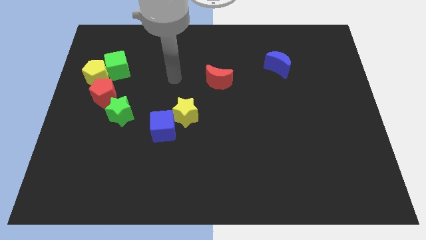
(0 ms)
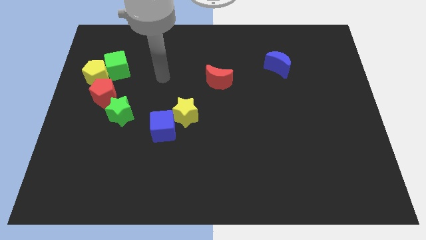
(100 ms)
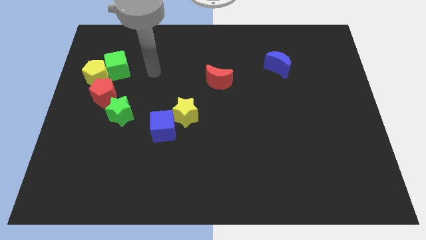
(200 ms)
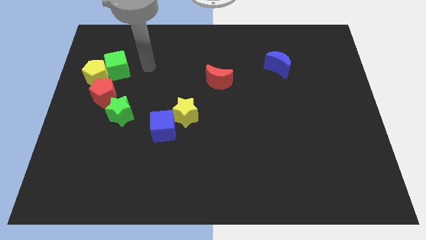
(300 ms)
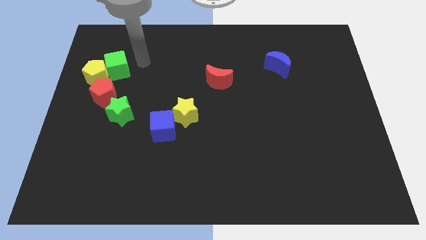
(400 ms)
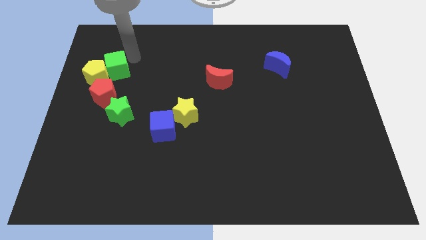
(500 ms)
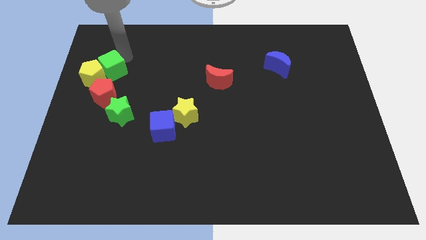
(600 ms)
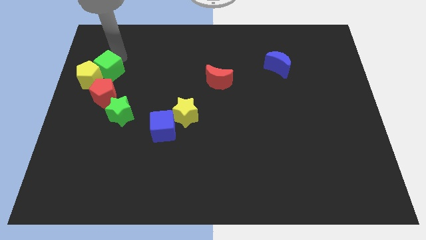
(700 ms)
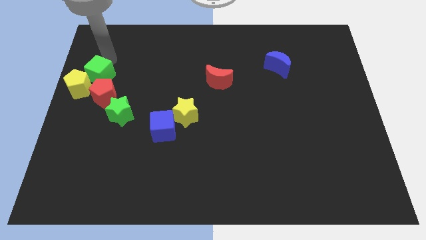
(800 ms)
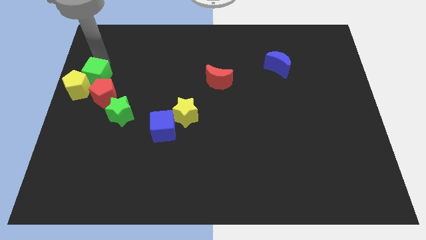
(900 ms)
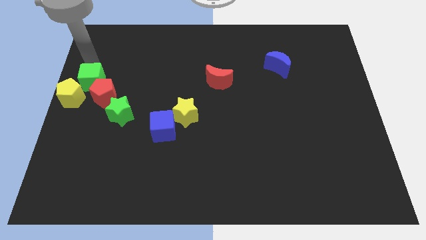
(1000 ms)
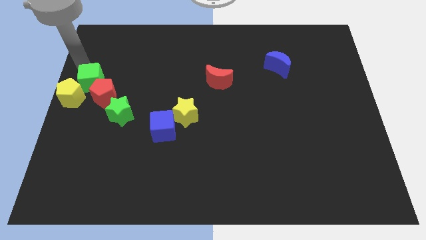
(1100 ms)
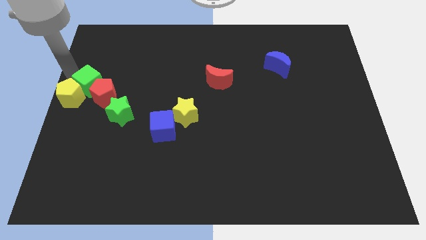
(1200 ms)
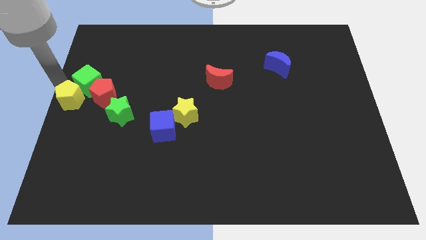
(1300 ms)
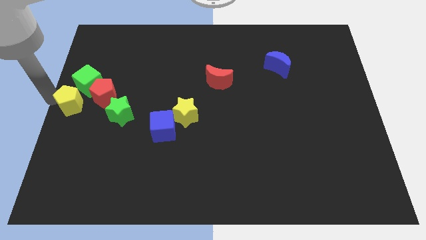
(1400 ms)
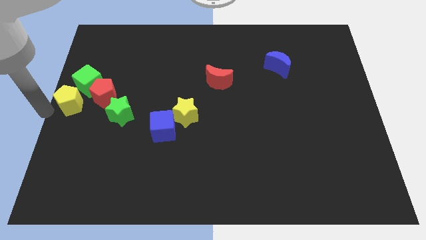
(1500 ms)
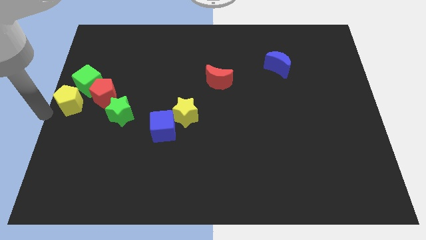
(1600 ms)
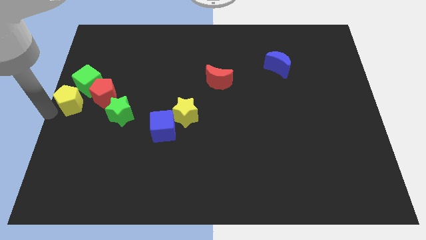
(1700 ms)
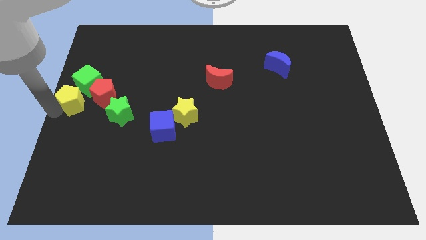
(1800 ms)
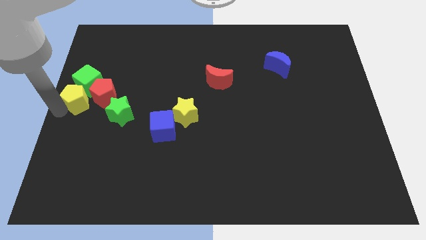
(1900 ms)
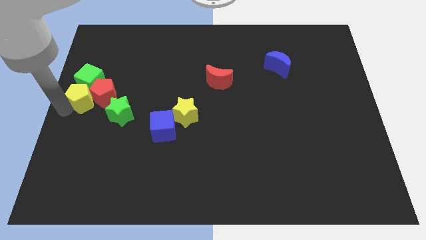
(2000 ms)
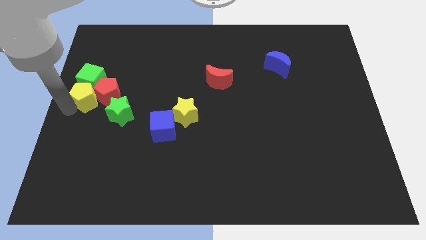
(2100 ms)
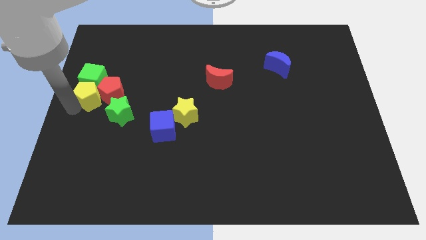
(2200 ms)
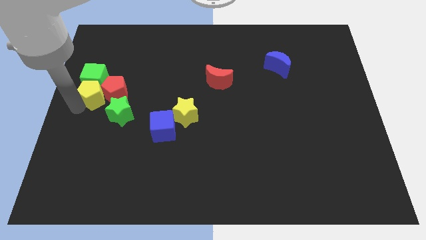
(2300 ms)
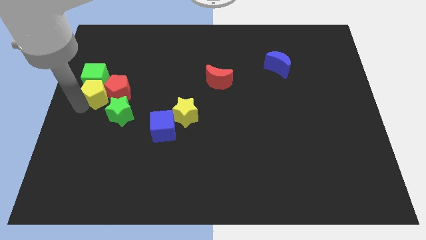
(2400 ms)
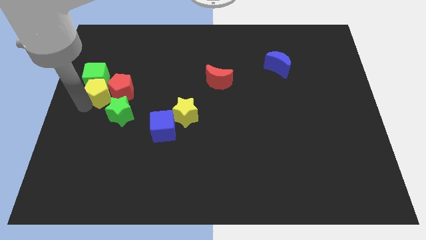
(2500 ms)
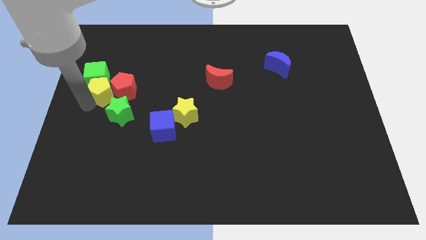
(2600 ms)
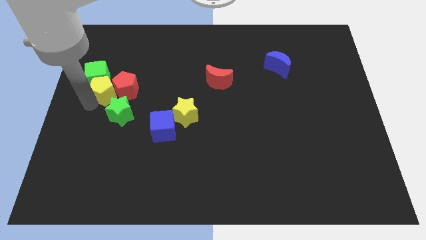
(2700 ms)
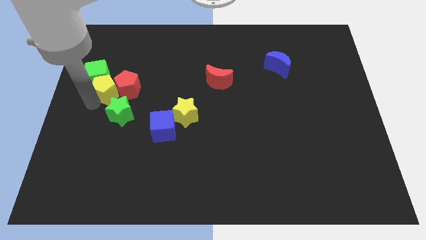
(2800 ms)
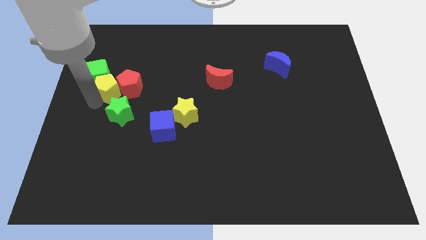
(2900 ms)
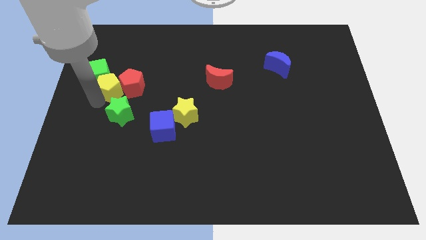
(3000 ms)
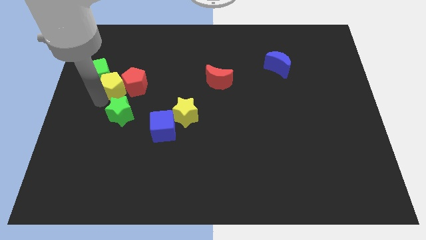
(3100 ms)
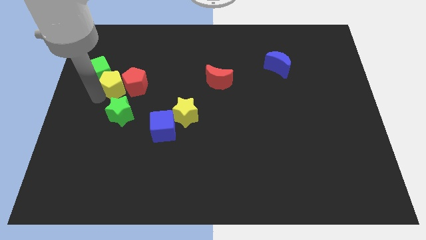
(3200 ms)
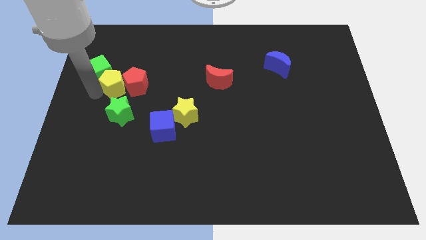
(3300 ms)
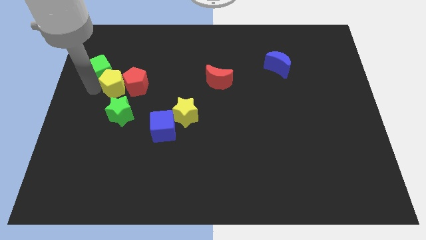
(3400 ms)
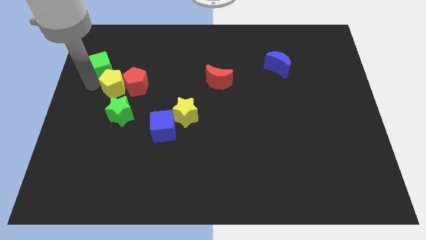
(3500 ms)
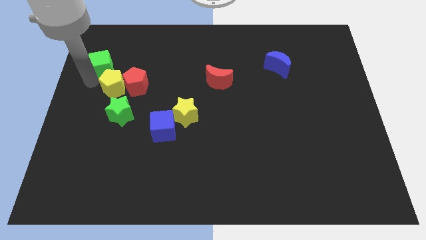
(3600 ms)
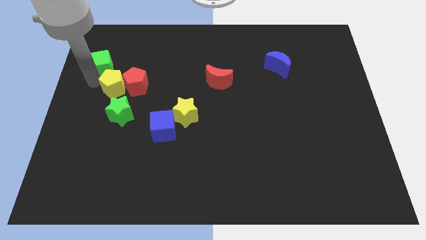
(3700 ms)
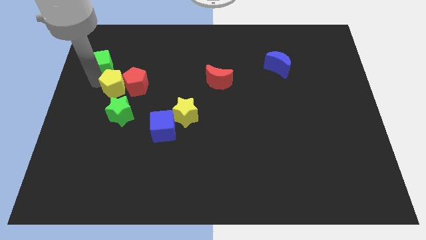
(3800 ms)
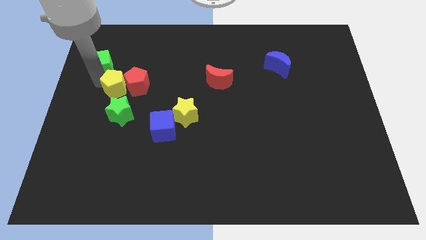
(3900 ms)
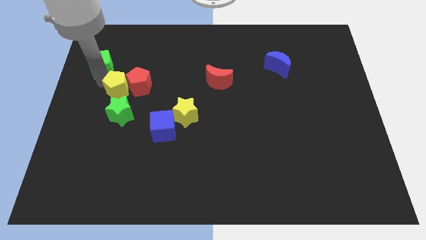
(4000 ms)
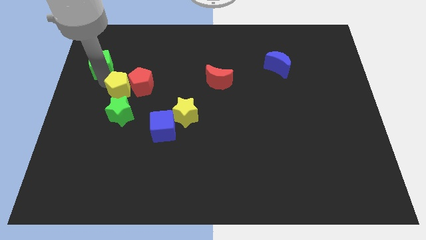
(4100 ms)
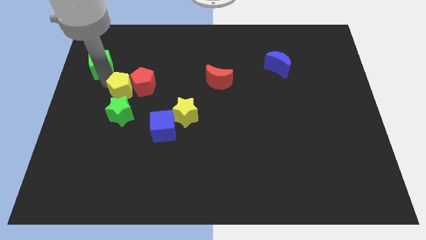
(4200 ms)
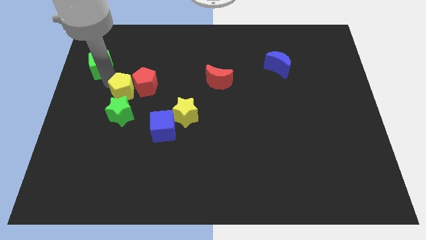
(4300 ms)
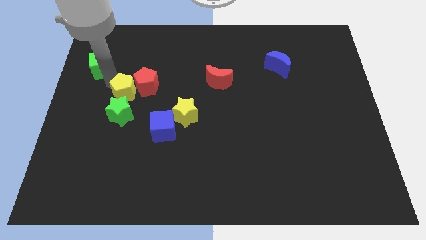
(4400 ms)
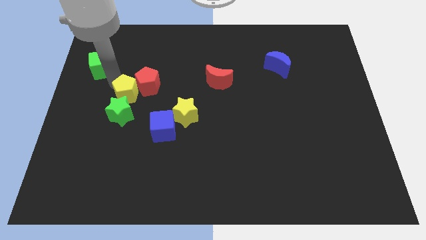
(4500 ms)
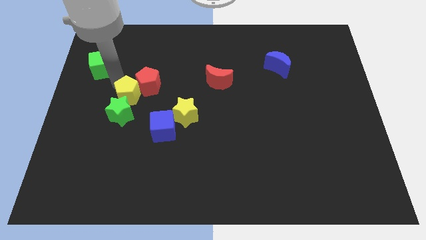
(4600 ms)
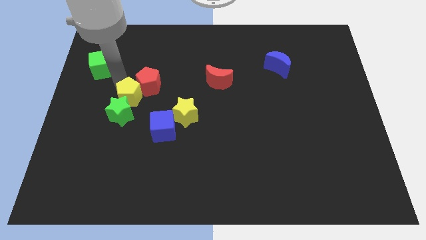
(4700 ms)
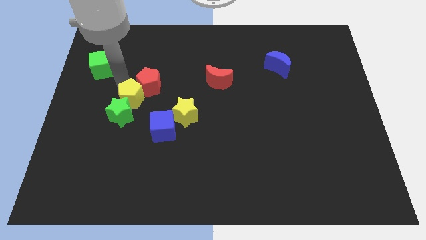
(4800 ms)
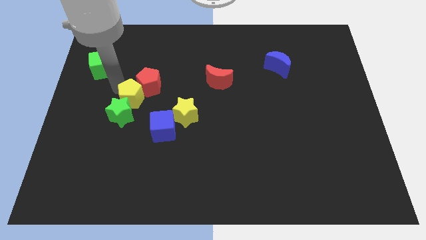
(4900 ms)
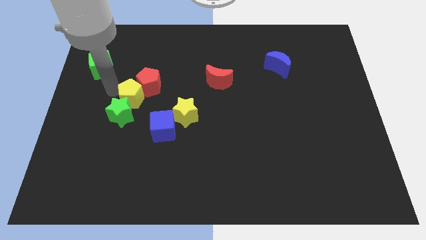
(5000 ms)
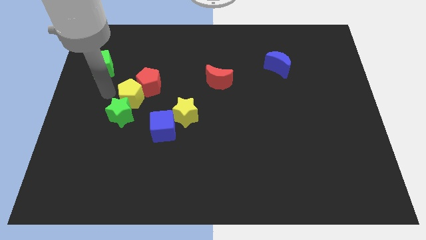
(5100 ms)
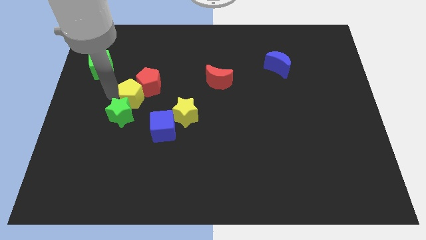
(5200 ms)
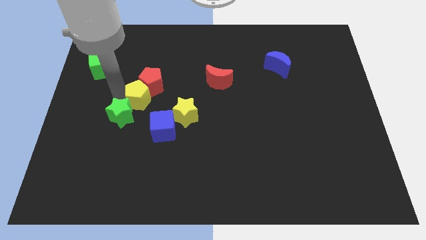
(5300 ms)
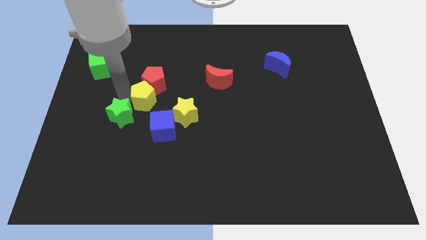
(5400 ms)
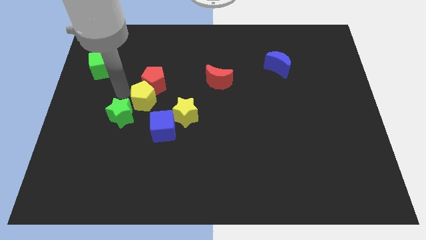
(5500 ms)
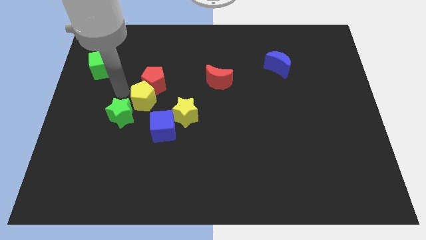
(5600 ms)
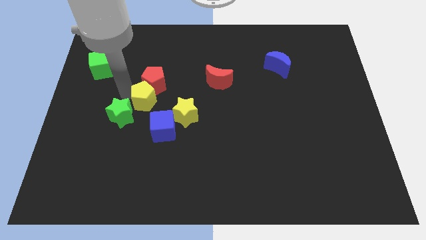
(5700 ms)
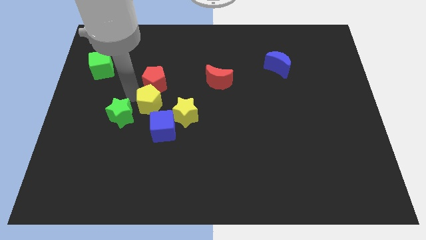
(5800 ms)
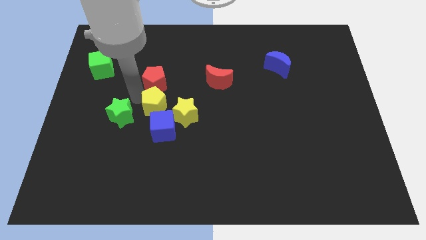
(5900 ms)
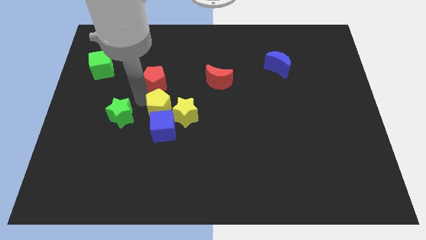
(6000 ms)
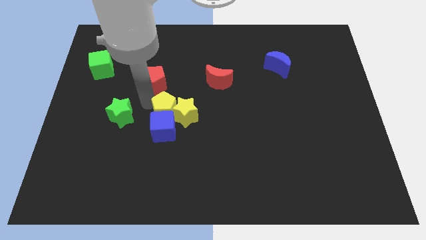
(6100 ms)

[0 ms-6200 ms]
slide the yellow pentagon towards the yellow star

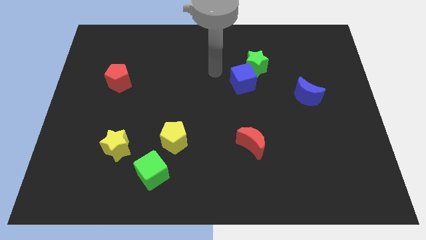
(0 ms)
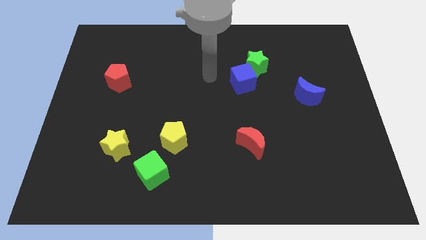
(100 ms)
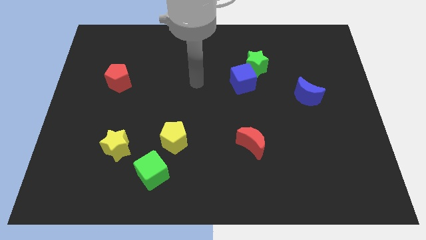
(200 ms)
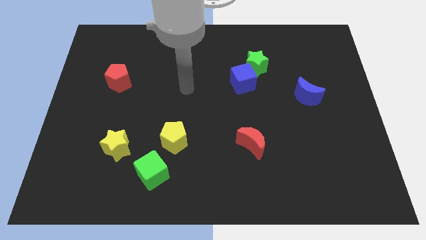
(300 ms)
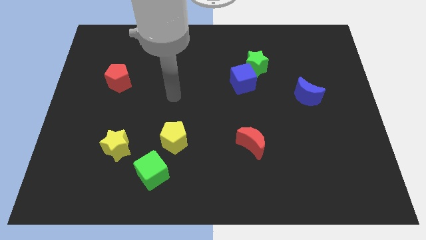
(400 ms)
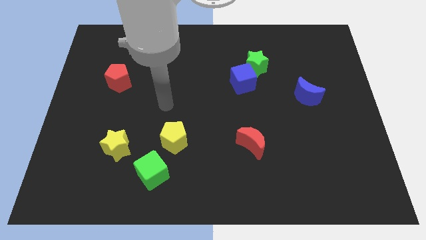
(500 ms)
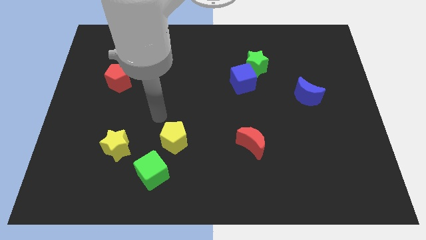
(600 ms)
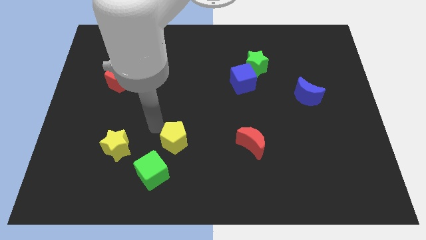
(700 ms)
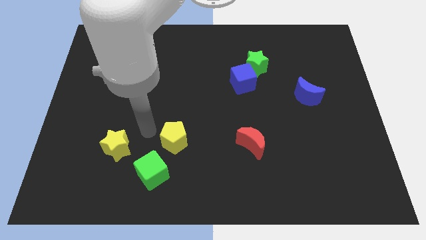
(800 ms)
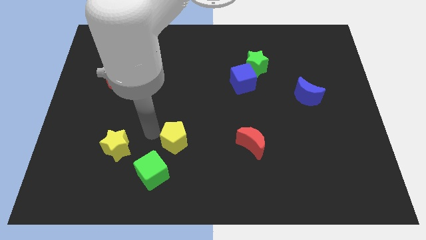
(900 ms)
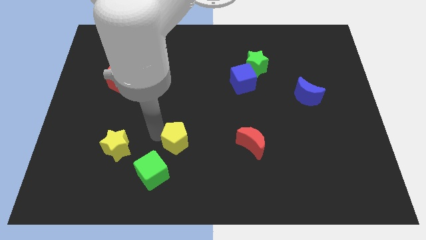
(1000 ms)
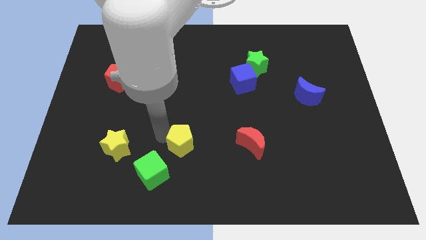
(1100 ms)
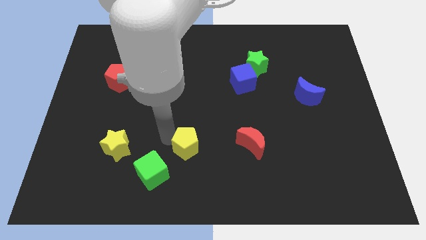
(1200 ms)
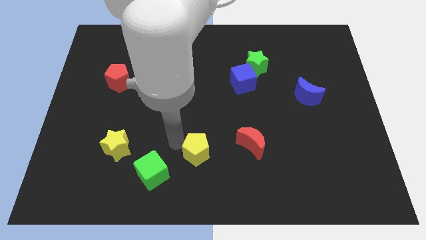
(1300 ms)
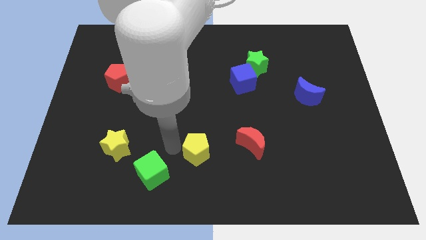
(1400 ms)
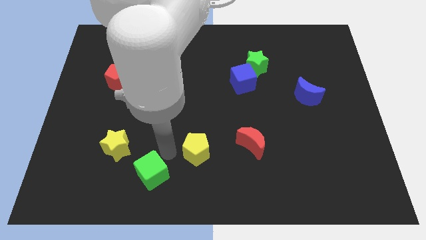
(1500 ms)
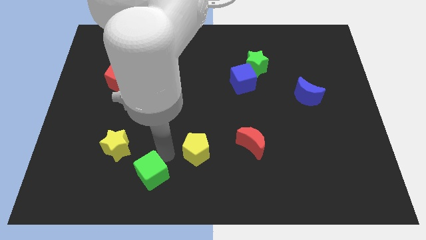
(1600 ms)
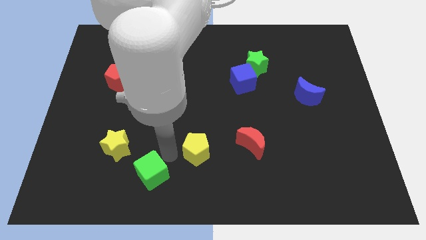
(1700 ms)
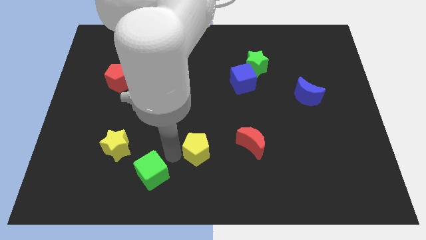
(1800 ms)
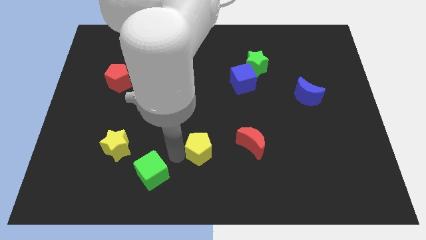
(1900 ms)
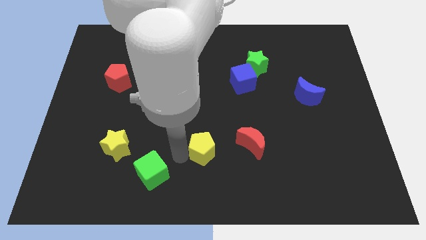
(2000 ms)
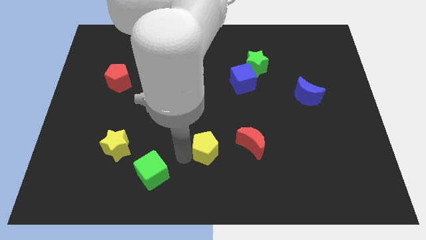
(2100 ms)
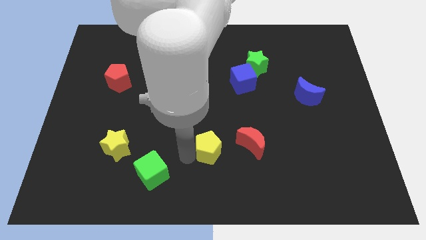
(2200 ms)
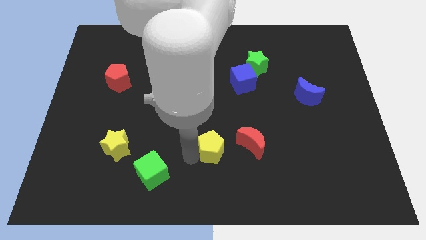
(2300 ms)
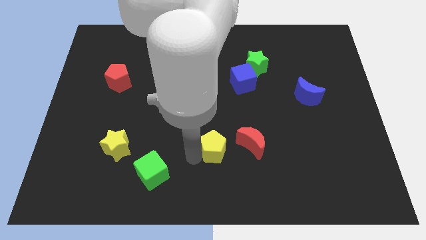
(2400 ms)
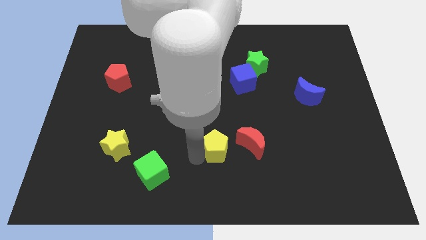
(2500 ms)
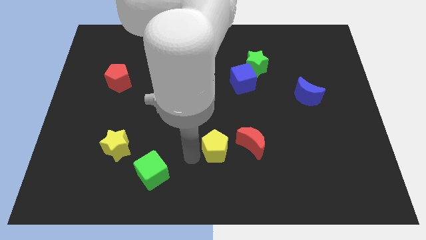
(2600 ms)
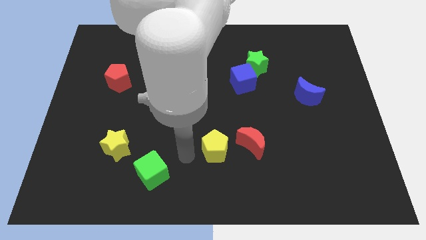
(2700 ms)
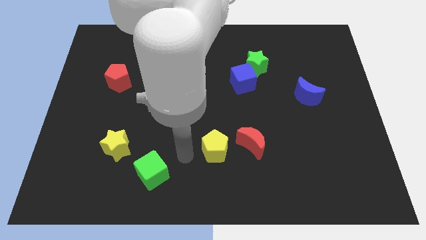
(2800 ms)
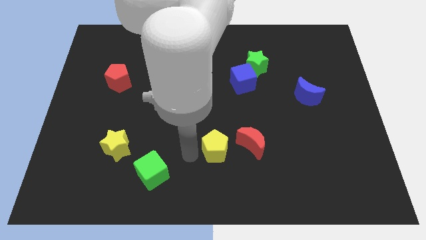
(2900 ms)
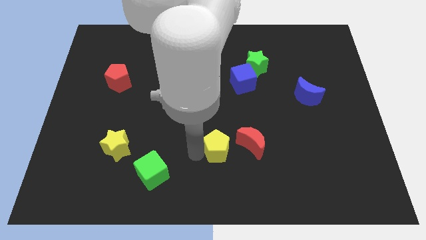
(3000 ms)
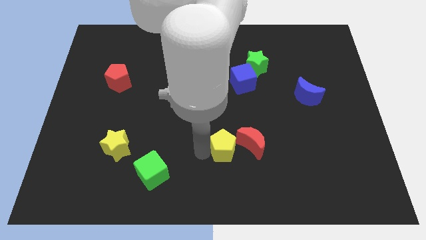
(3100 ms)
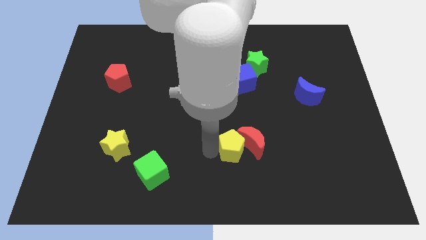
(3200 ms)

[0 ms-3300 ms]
slide the yellow pentagon close to the red moon
